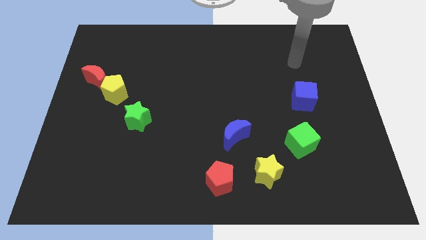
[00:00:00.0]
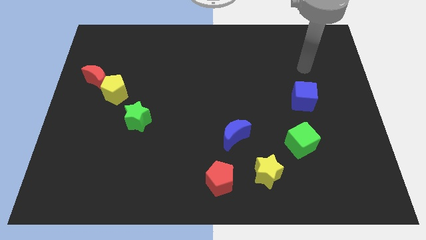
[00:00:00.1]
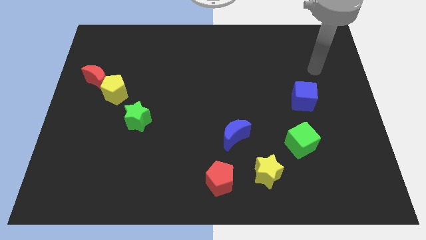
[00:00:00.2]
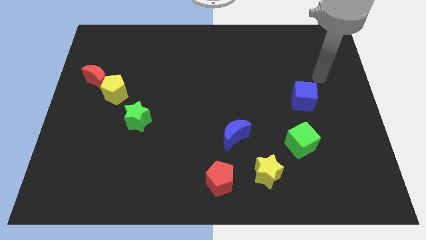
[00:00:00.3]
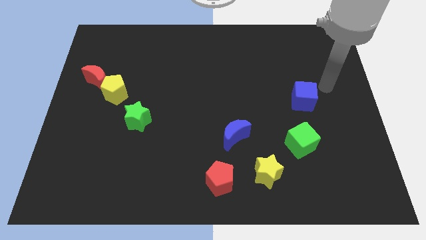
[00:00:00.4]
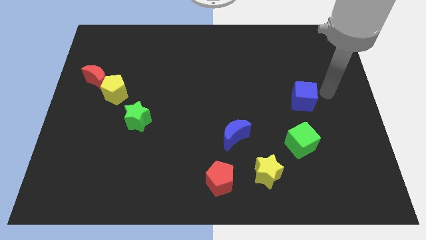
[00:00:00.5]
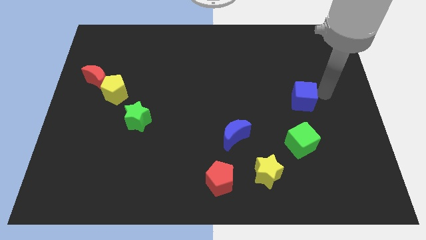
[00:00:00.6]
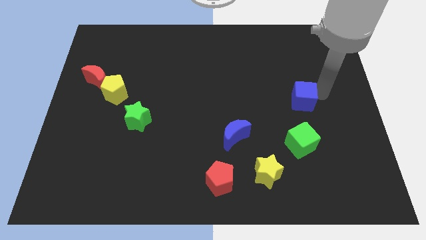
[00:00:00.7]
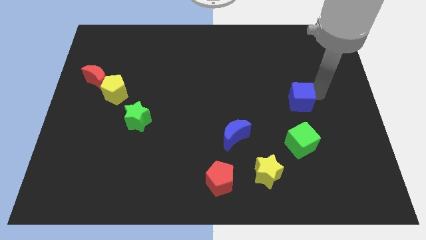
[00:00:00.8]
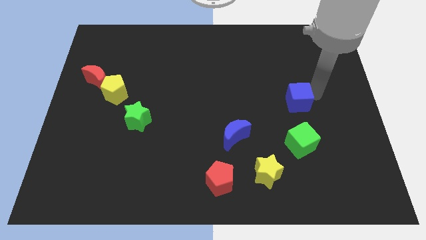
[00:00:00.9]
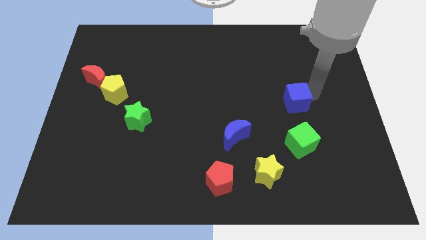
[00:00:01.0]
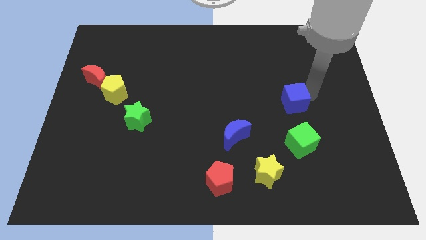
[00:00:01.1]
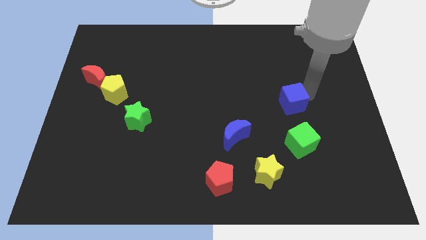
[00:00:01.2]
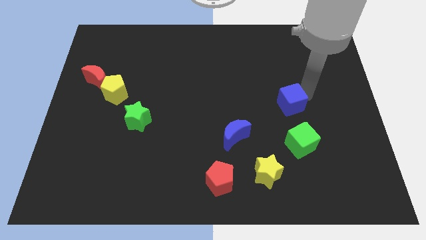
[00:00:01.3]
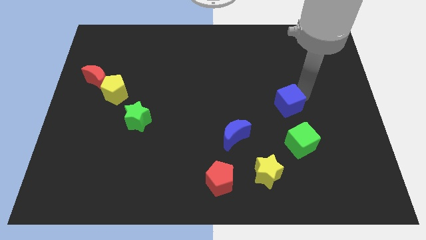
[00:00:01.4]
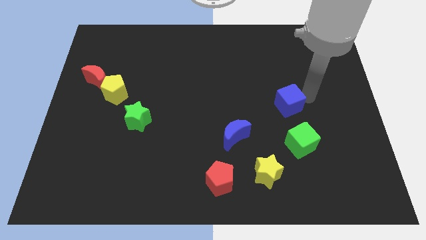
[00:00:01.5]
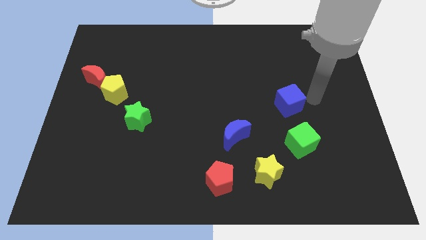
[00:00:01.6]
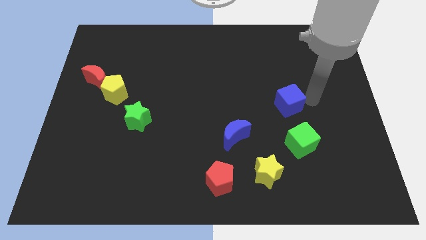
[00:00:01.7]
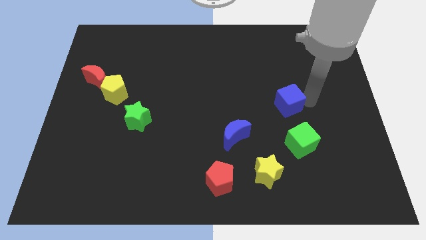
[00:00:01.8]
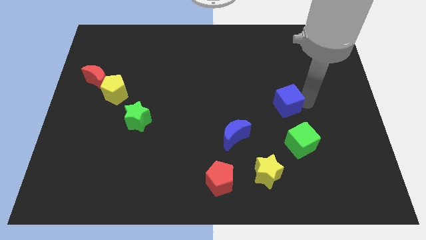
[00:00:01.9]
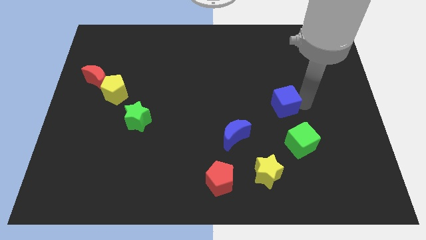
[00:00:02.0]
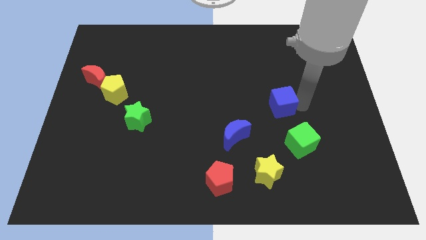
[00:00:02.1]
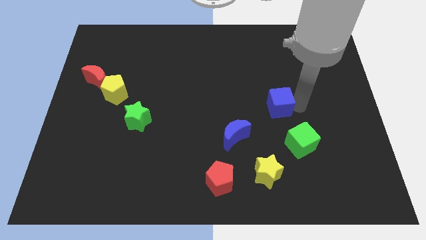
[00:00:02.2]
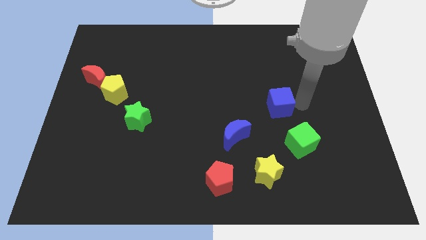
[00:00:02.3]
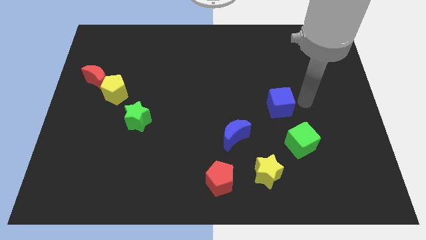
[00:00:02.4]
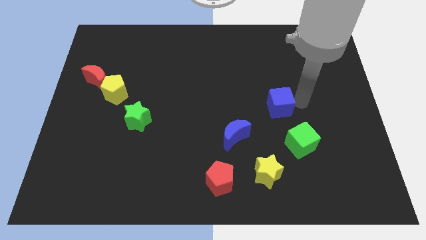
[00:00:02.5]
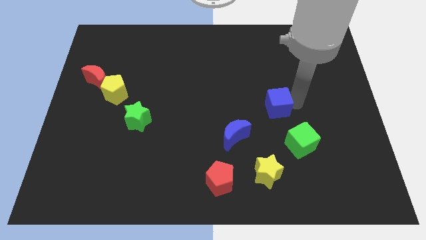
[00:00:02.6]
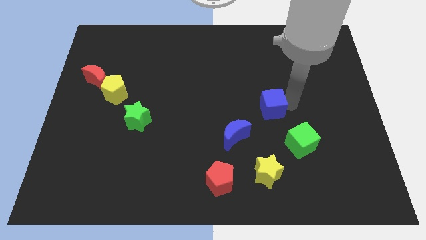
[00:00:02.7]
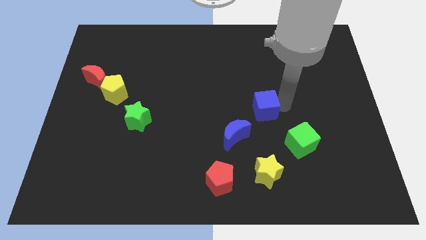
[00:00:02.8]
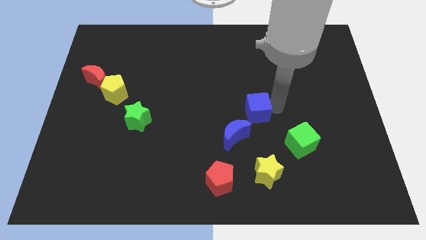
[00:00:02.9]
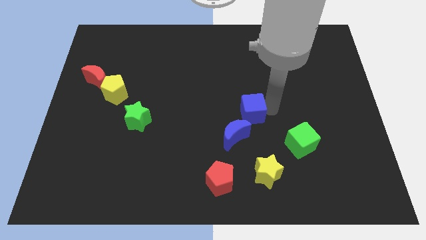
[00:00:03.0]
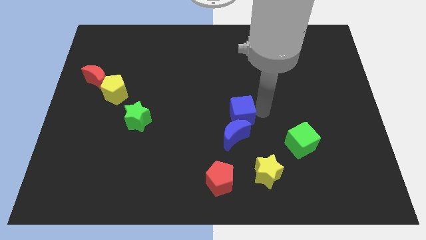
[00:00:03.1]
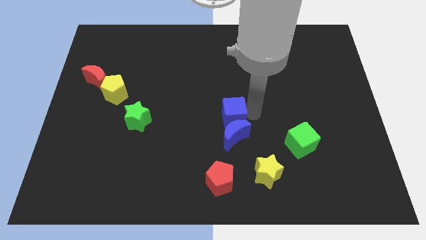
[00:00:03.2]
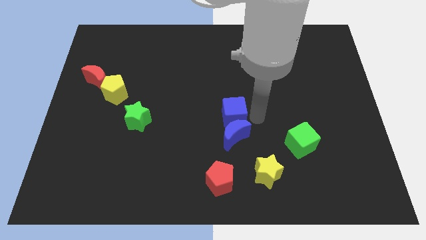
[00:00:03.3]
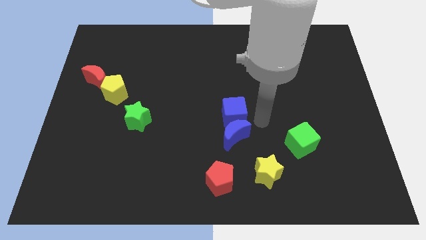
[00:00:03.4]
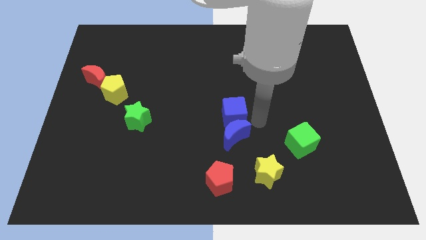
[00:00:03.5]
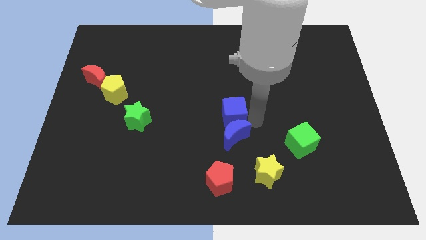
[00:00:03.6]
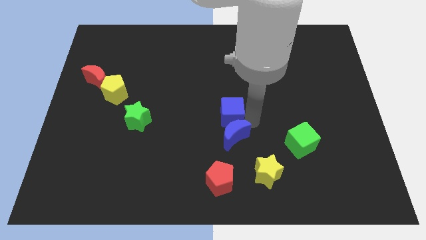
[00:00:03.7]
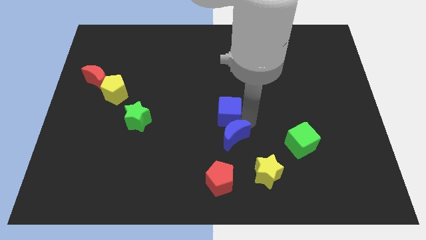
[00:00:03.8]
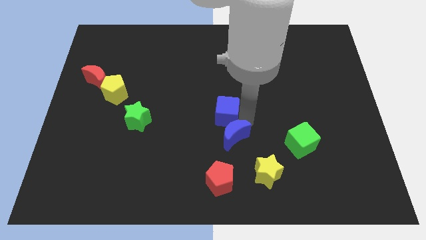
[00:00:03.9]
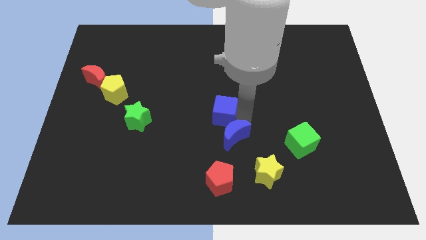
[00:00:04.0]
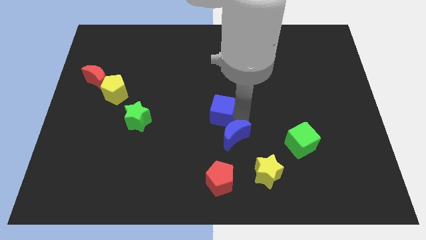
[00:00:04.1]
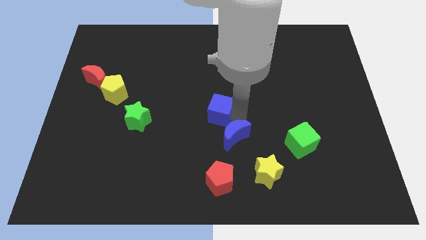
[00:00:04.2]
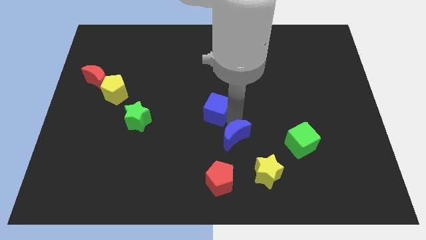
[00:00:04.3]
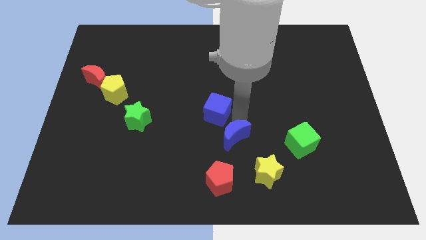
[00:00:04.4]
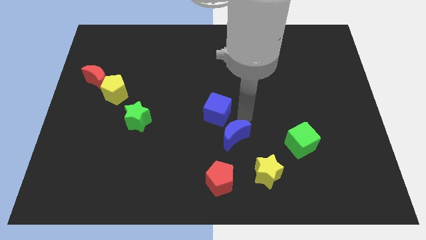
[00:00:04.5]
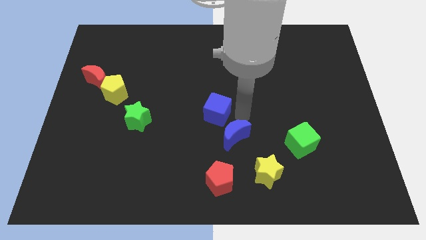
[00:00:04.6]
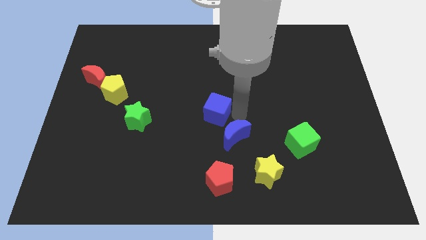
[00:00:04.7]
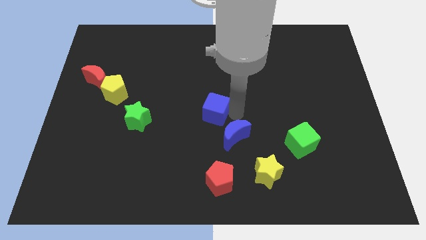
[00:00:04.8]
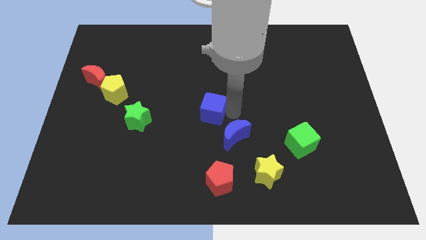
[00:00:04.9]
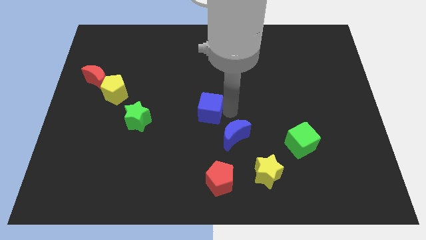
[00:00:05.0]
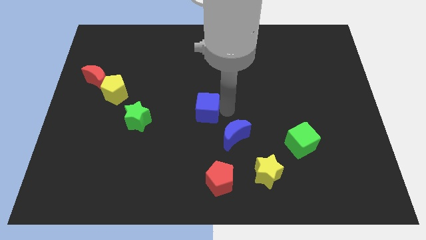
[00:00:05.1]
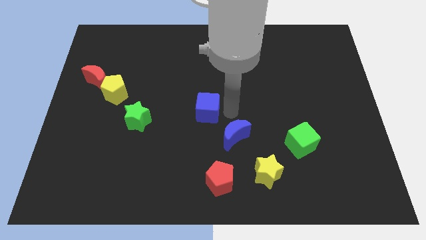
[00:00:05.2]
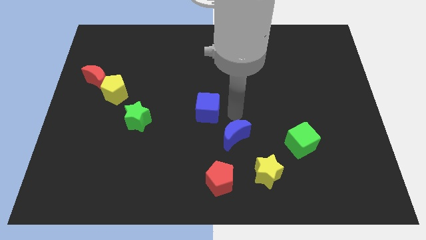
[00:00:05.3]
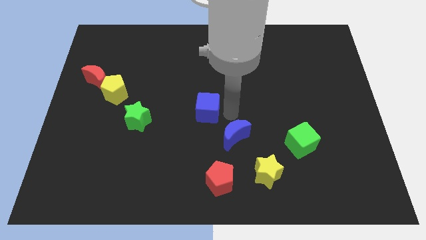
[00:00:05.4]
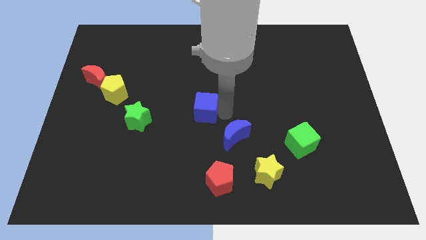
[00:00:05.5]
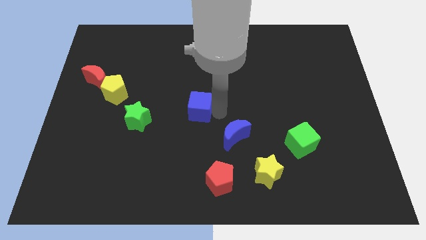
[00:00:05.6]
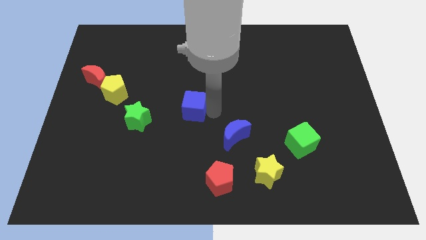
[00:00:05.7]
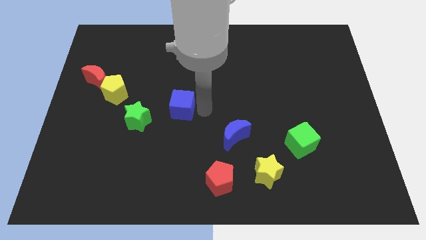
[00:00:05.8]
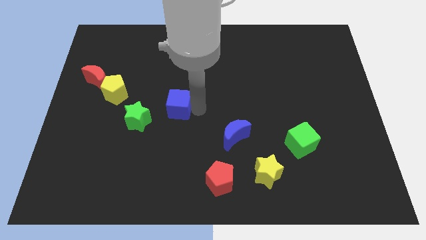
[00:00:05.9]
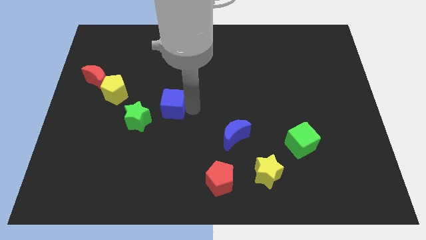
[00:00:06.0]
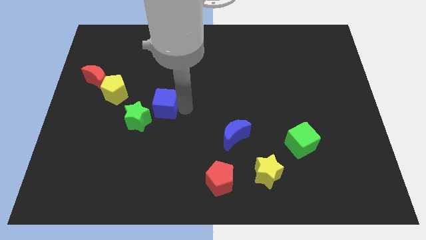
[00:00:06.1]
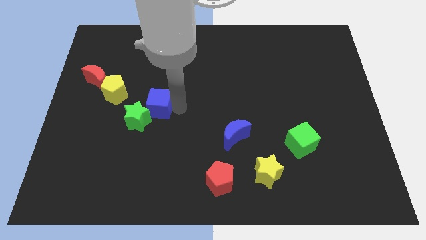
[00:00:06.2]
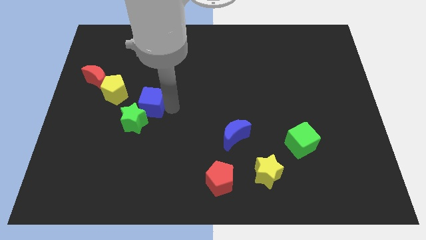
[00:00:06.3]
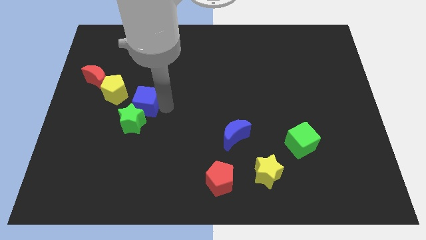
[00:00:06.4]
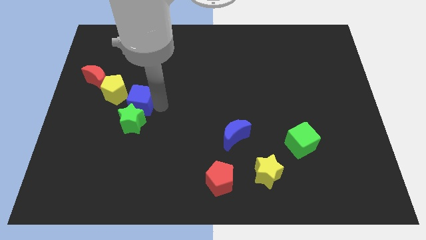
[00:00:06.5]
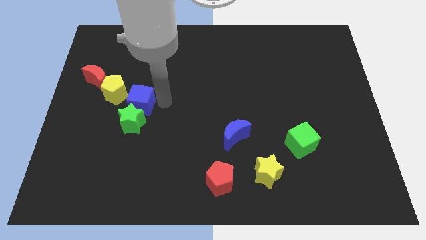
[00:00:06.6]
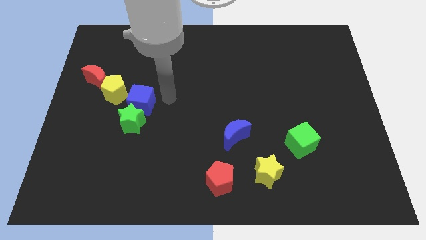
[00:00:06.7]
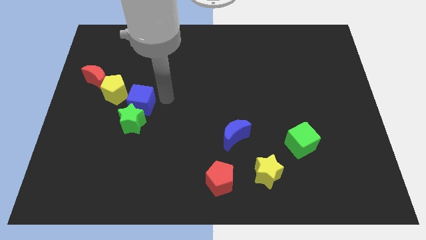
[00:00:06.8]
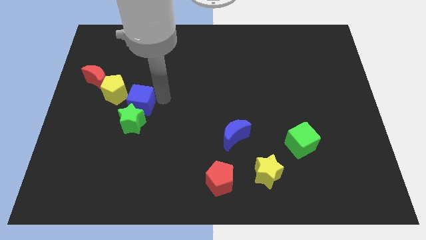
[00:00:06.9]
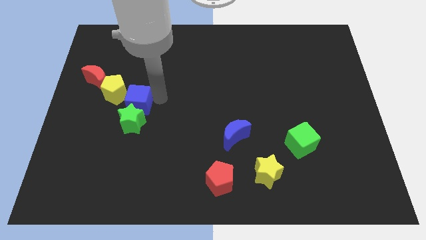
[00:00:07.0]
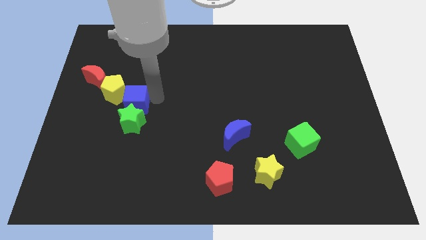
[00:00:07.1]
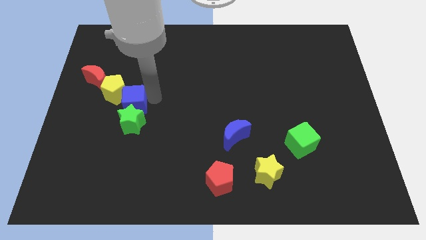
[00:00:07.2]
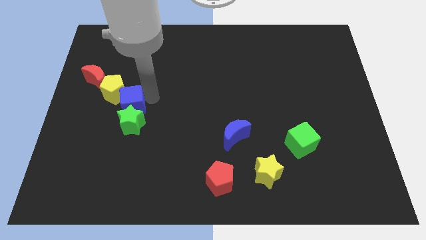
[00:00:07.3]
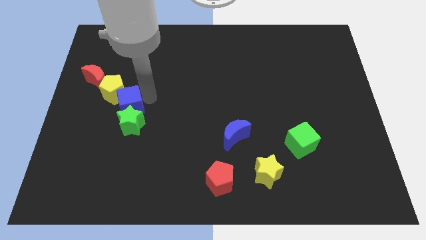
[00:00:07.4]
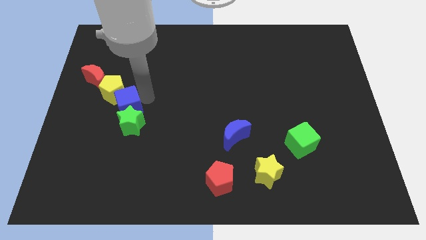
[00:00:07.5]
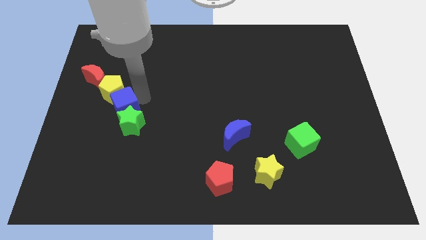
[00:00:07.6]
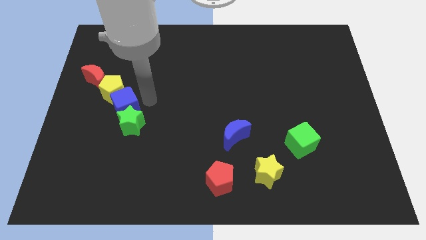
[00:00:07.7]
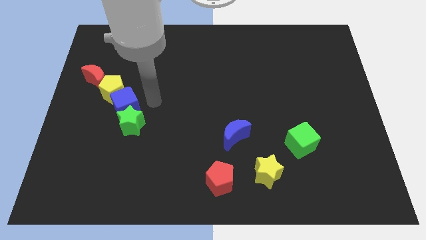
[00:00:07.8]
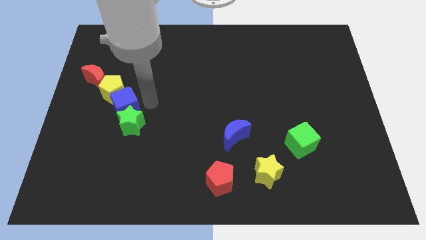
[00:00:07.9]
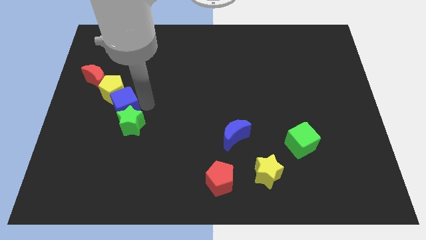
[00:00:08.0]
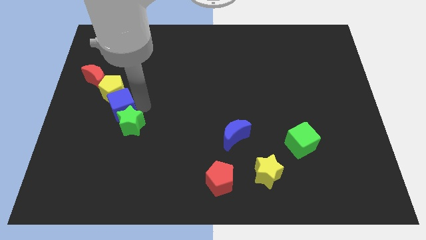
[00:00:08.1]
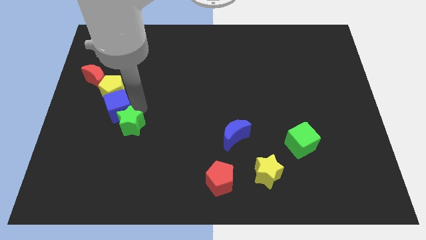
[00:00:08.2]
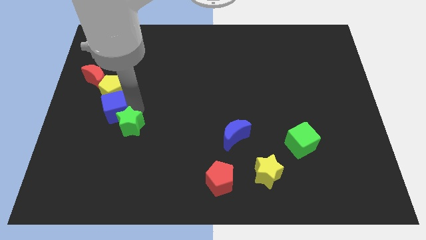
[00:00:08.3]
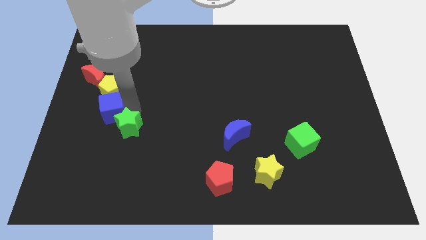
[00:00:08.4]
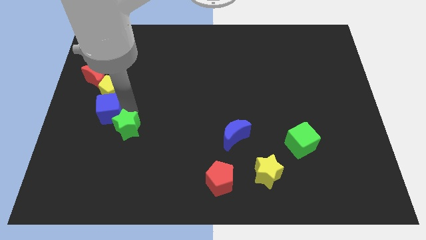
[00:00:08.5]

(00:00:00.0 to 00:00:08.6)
slide the blue cube to the bottom side of the red moon
